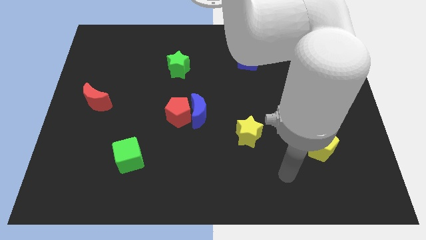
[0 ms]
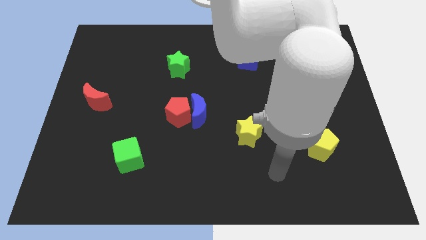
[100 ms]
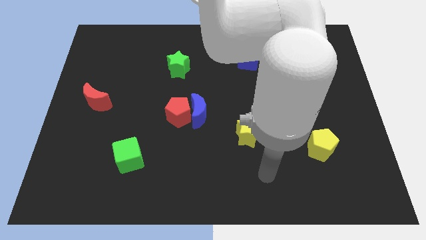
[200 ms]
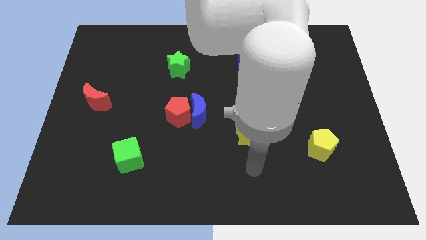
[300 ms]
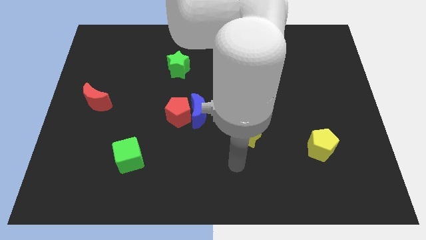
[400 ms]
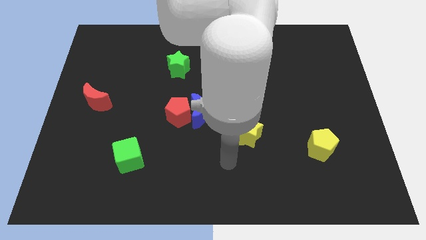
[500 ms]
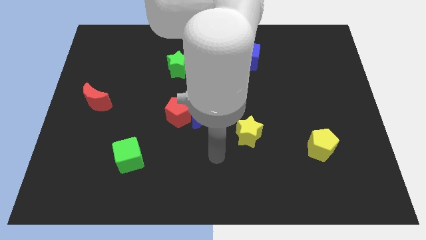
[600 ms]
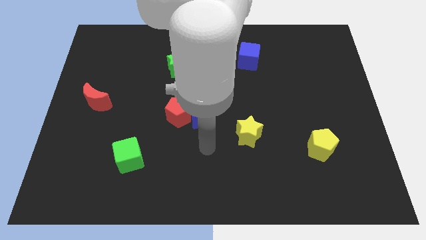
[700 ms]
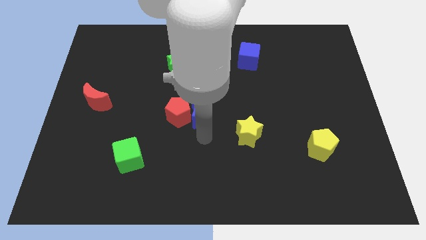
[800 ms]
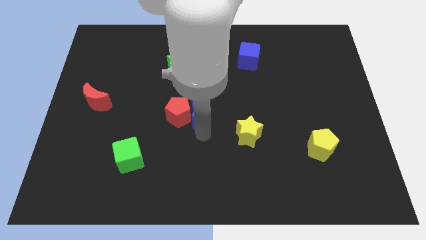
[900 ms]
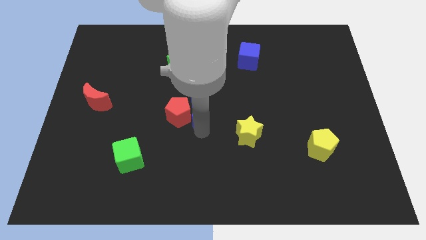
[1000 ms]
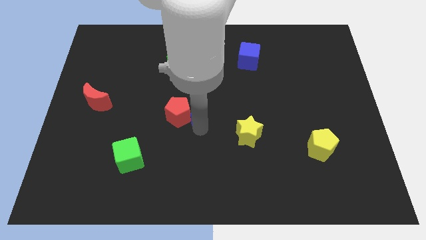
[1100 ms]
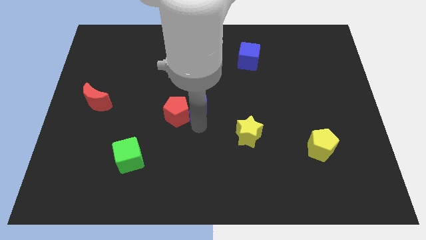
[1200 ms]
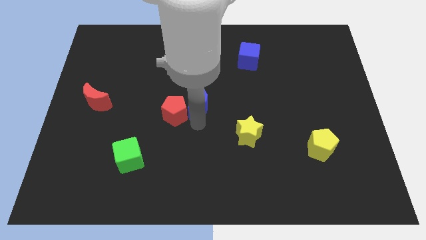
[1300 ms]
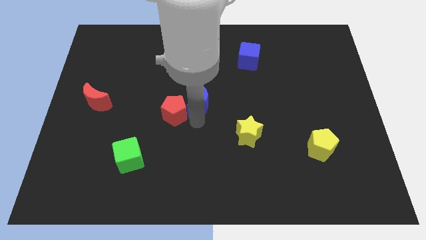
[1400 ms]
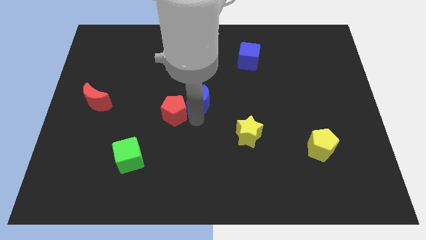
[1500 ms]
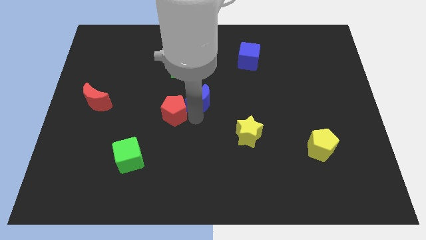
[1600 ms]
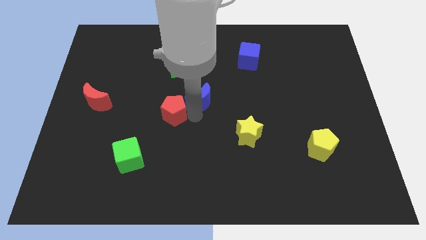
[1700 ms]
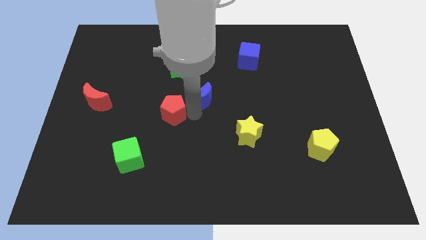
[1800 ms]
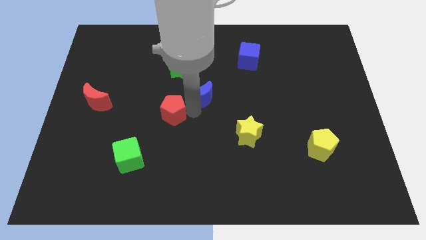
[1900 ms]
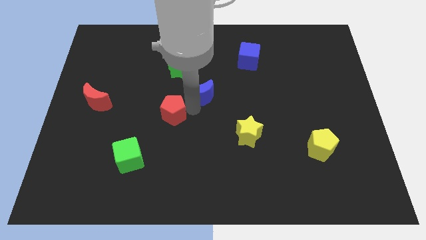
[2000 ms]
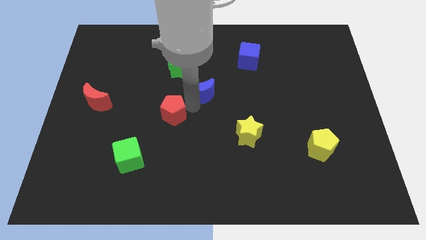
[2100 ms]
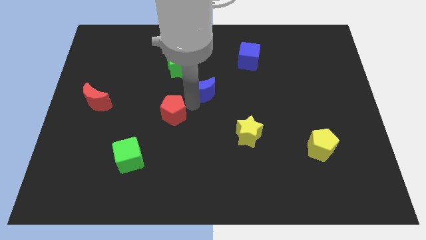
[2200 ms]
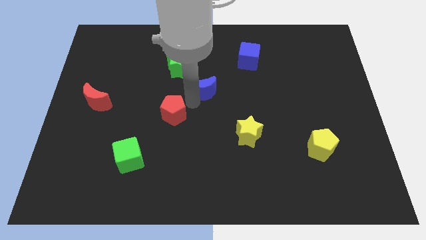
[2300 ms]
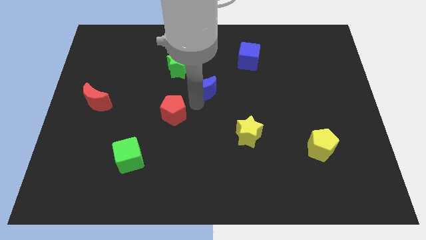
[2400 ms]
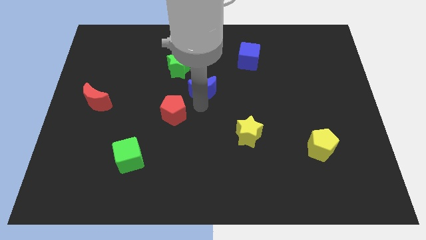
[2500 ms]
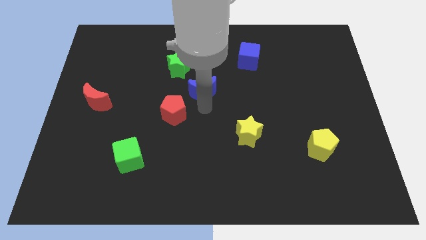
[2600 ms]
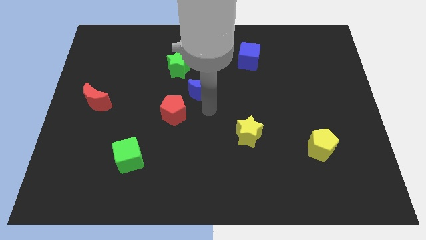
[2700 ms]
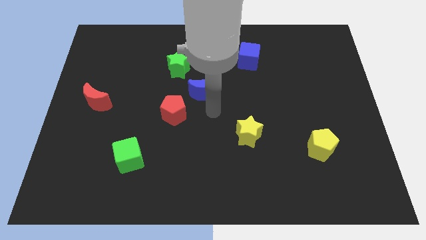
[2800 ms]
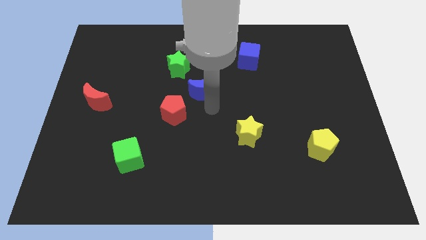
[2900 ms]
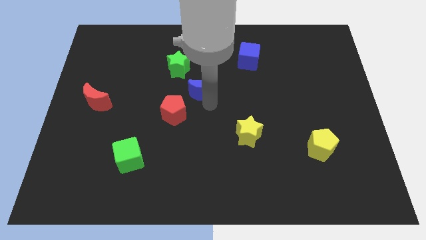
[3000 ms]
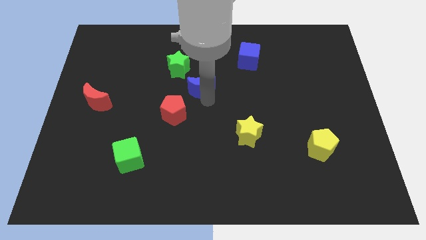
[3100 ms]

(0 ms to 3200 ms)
move the blue moon a little up

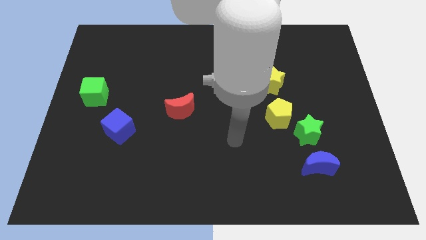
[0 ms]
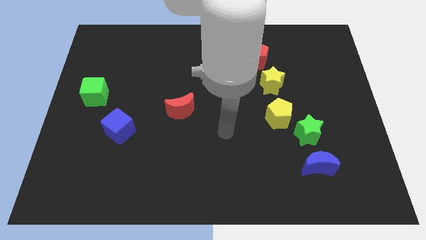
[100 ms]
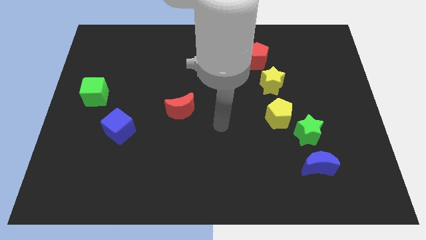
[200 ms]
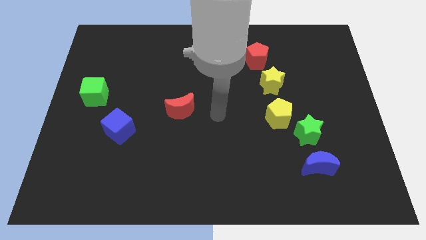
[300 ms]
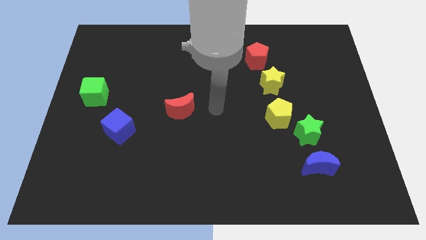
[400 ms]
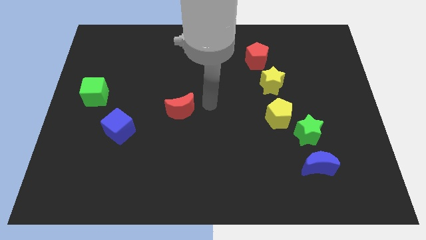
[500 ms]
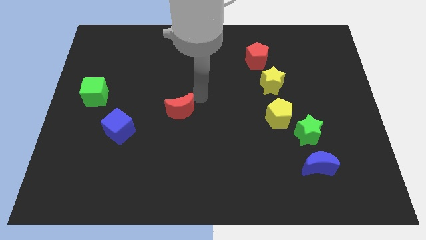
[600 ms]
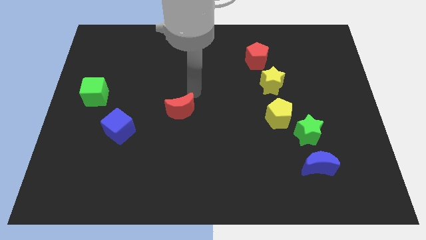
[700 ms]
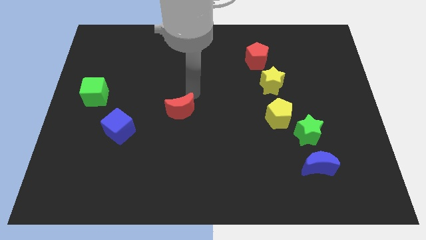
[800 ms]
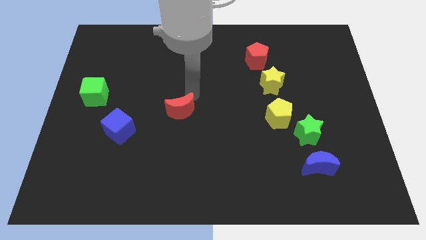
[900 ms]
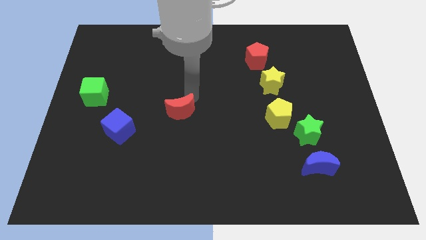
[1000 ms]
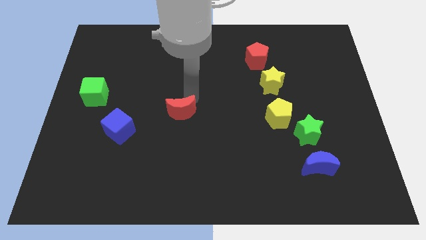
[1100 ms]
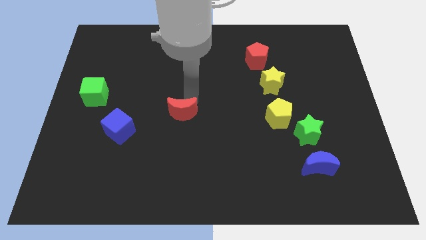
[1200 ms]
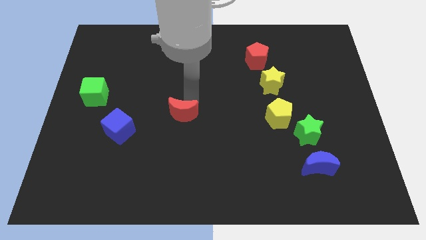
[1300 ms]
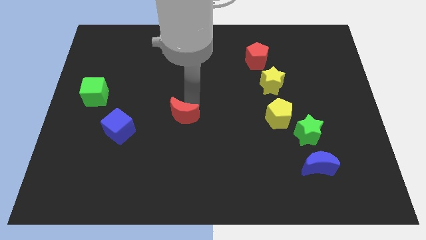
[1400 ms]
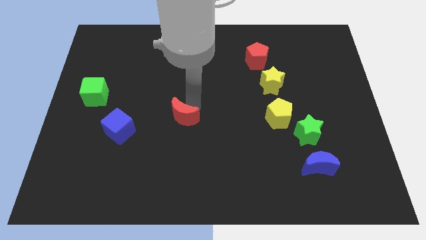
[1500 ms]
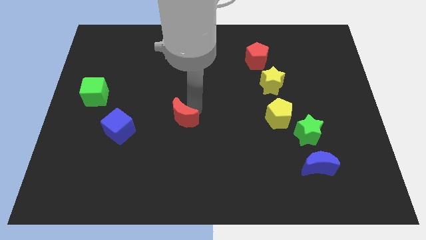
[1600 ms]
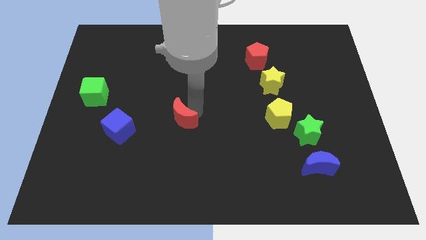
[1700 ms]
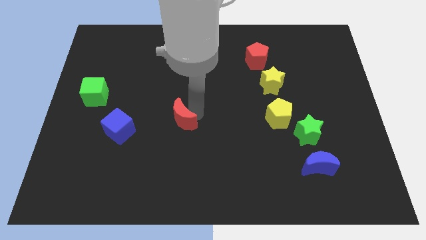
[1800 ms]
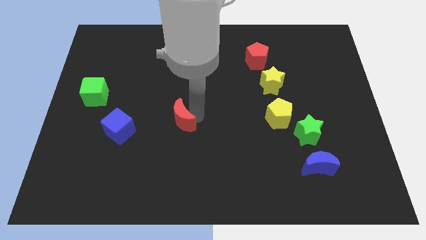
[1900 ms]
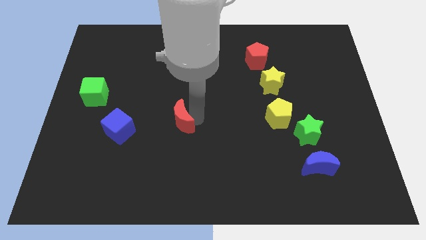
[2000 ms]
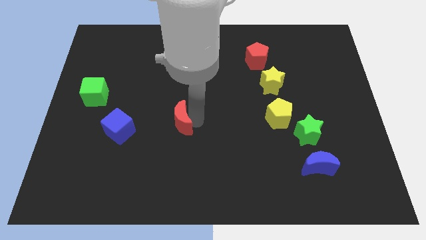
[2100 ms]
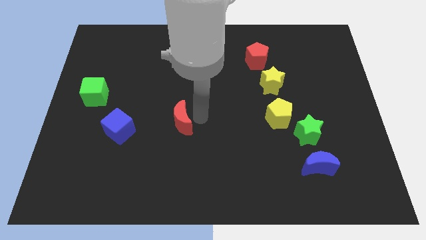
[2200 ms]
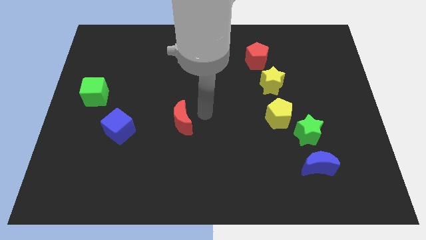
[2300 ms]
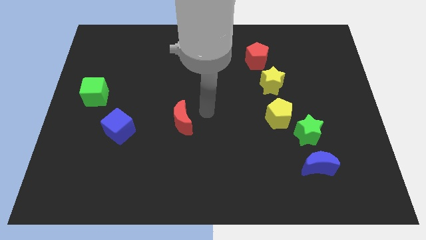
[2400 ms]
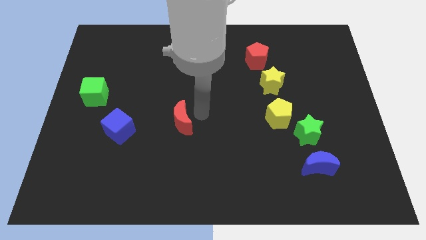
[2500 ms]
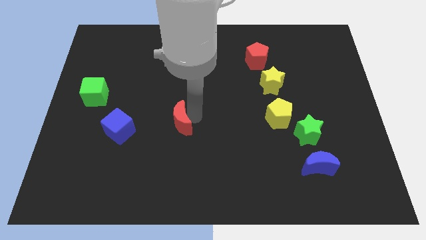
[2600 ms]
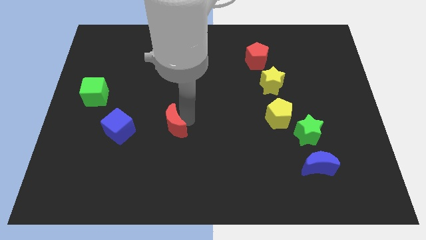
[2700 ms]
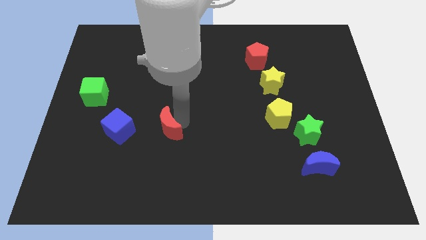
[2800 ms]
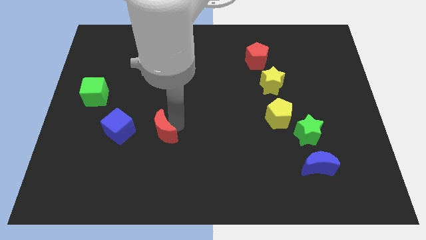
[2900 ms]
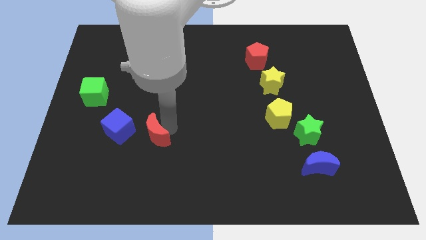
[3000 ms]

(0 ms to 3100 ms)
move the red moon a little bit down and to the left

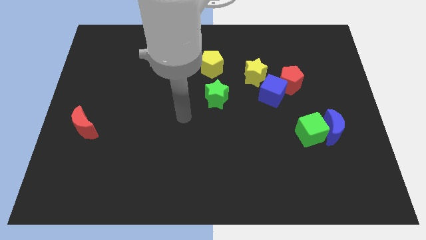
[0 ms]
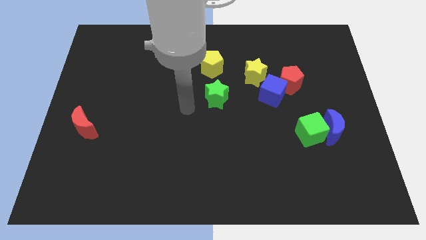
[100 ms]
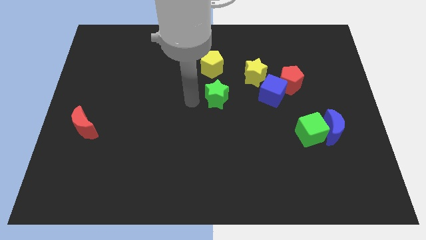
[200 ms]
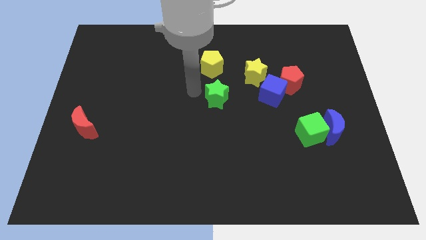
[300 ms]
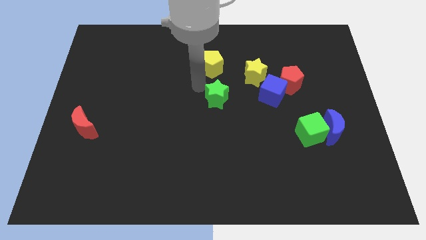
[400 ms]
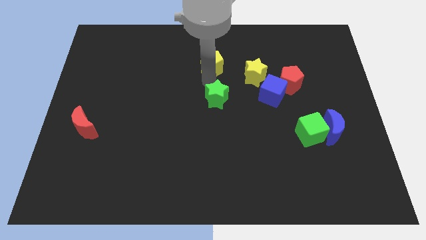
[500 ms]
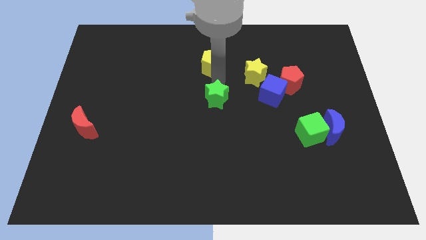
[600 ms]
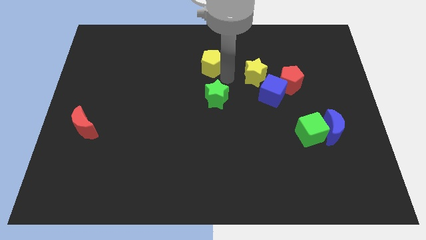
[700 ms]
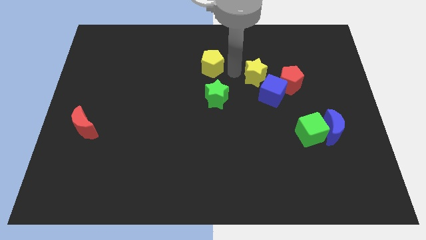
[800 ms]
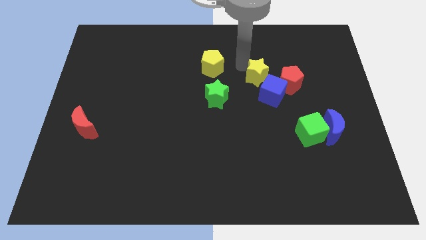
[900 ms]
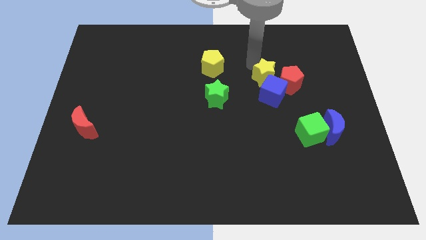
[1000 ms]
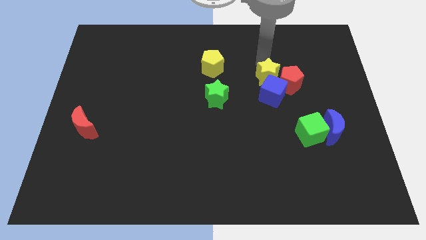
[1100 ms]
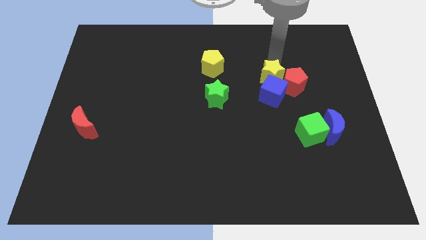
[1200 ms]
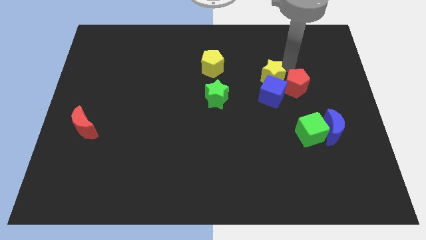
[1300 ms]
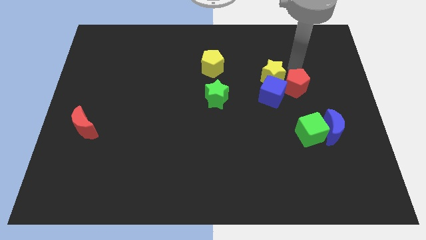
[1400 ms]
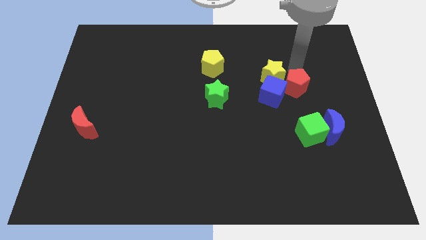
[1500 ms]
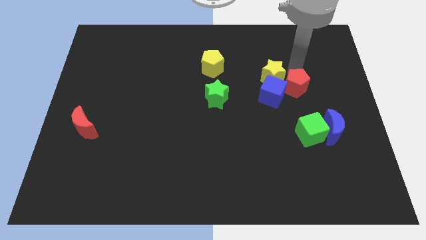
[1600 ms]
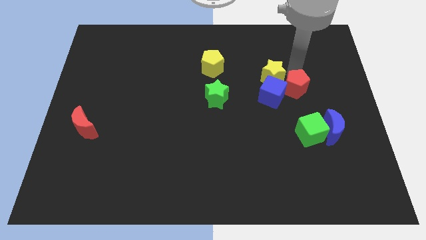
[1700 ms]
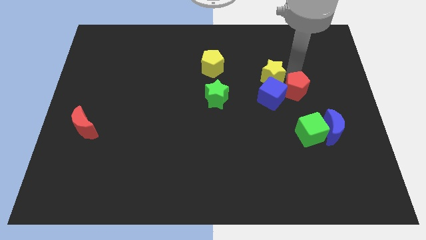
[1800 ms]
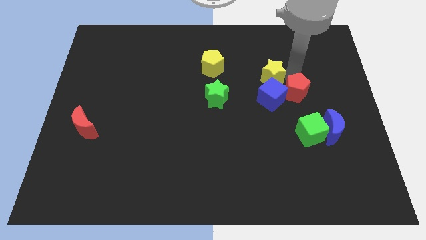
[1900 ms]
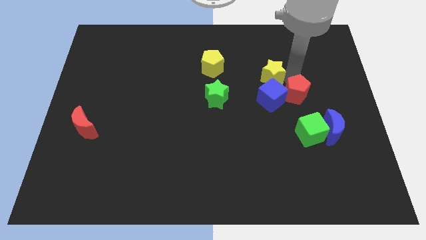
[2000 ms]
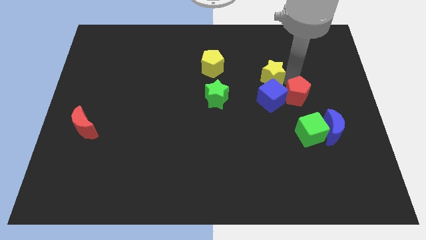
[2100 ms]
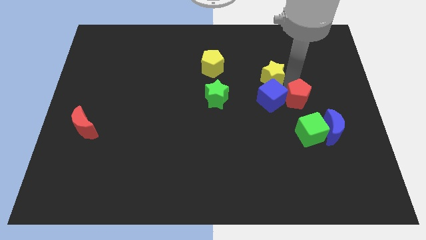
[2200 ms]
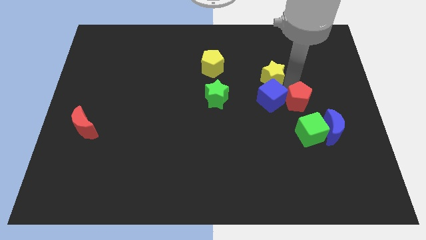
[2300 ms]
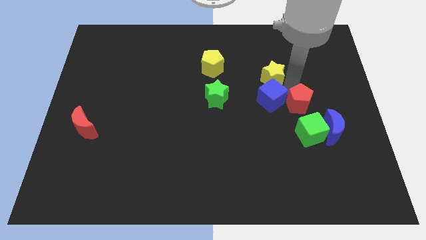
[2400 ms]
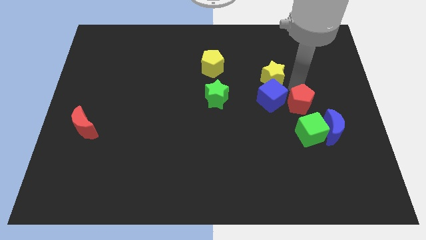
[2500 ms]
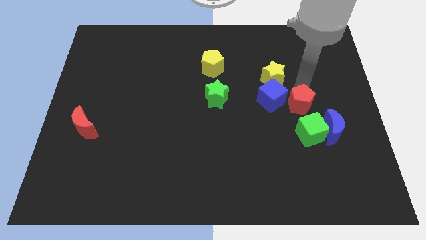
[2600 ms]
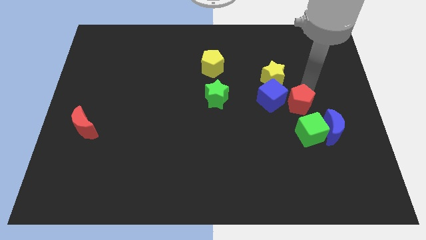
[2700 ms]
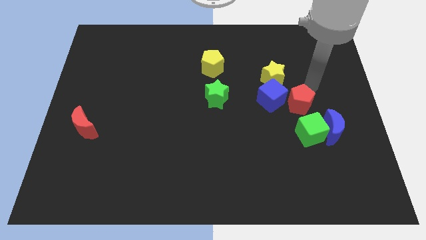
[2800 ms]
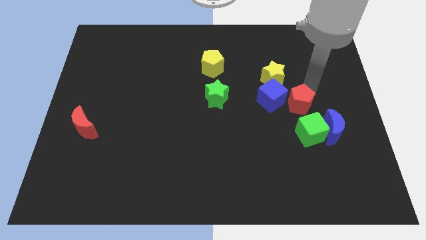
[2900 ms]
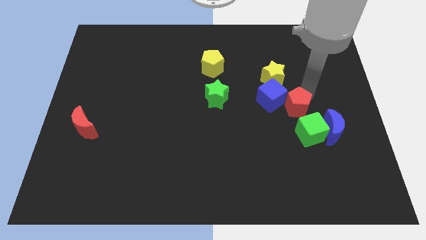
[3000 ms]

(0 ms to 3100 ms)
slightly slide the red pentagon down
